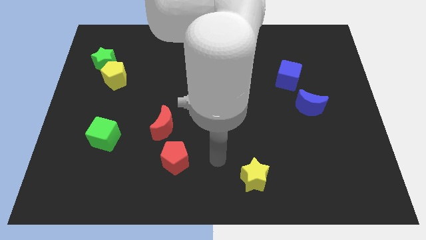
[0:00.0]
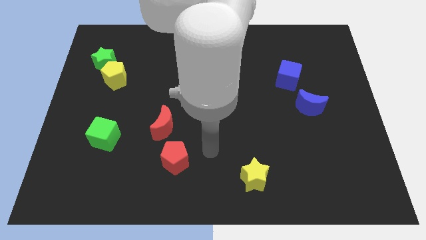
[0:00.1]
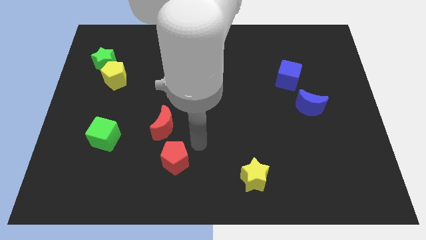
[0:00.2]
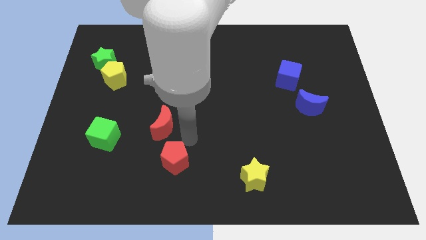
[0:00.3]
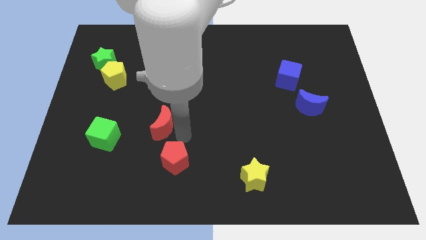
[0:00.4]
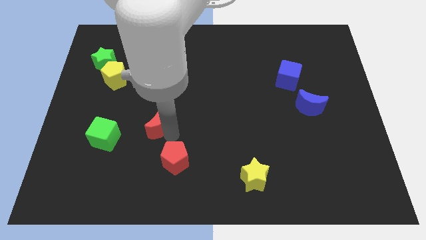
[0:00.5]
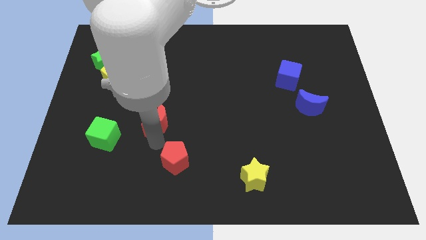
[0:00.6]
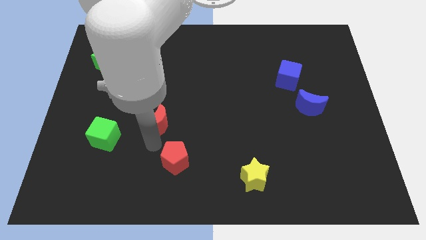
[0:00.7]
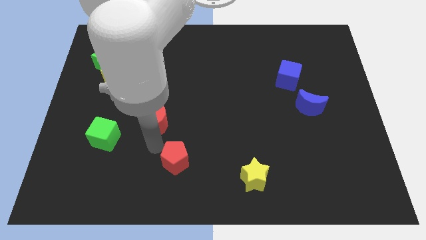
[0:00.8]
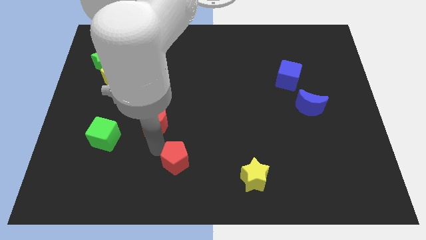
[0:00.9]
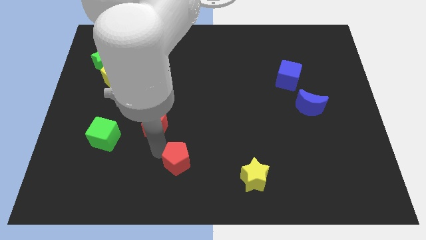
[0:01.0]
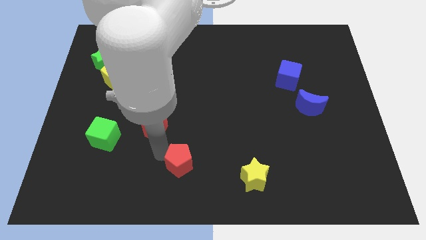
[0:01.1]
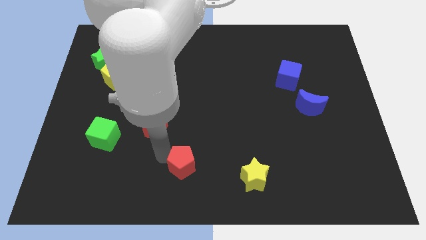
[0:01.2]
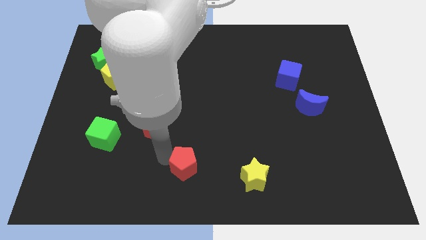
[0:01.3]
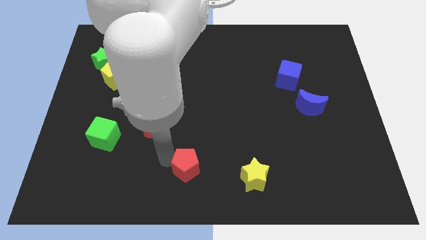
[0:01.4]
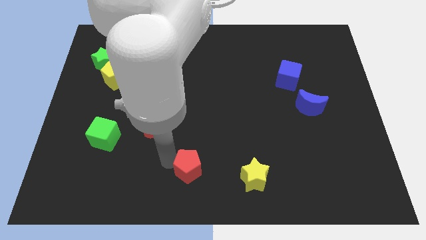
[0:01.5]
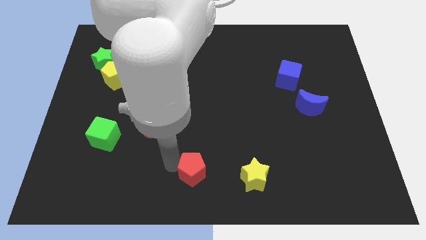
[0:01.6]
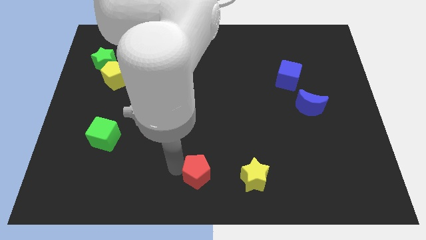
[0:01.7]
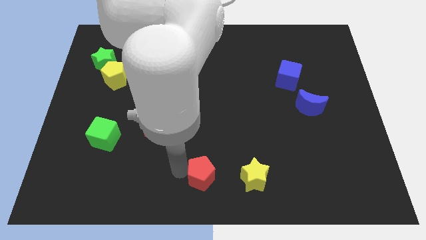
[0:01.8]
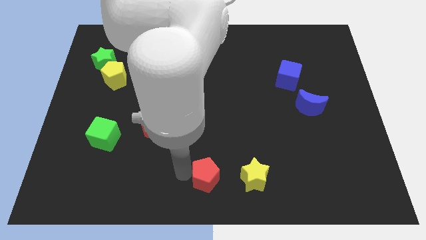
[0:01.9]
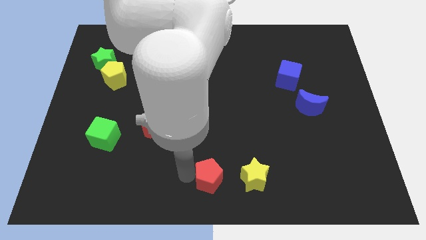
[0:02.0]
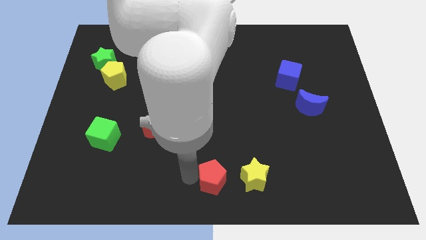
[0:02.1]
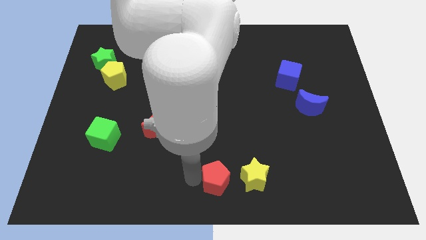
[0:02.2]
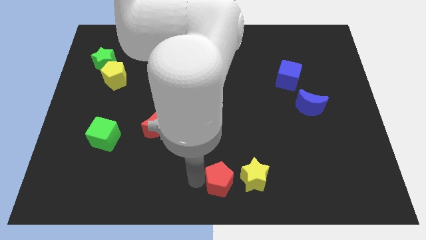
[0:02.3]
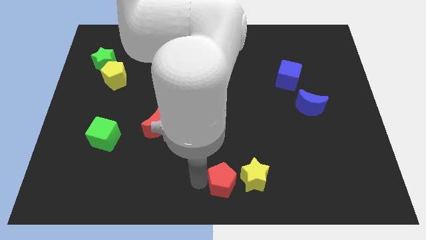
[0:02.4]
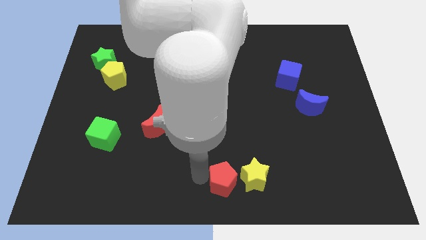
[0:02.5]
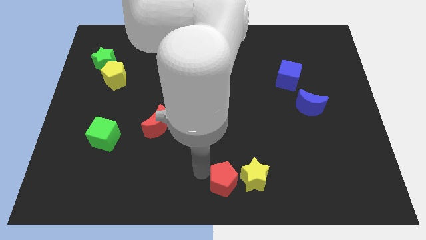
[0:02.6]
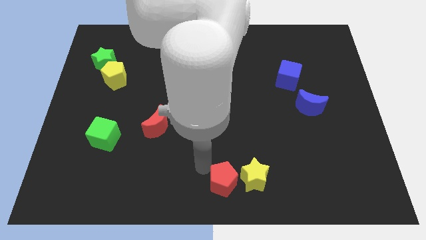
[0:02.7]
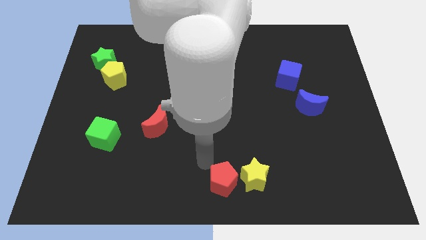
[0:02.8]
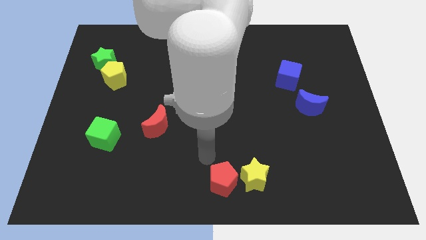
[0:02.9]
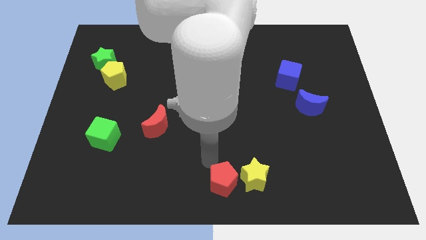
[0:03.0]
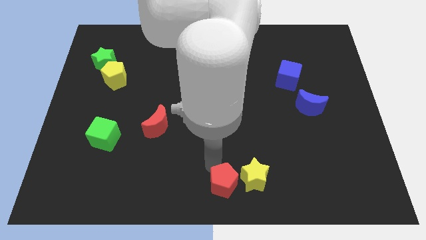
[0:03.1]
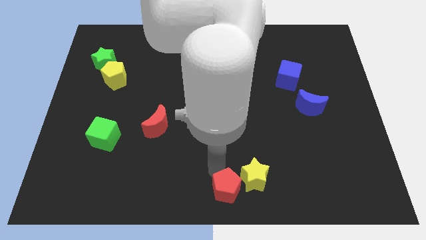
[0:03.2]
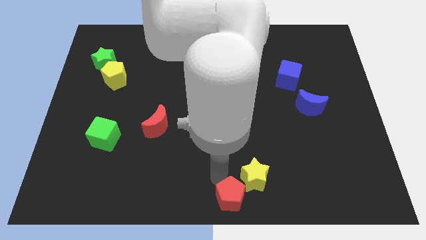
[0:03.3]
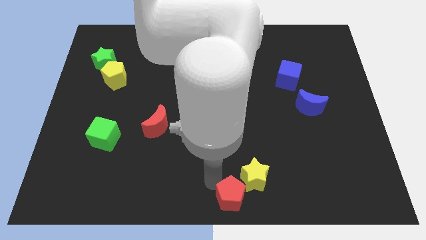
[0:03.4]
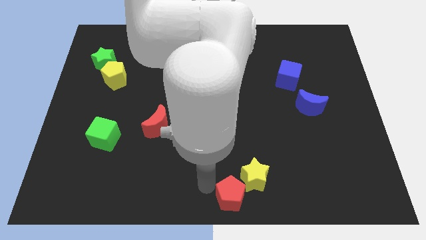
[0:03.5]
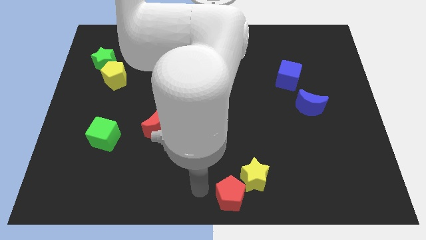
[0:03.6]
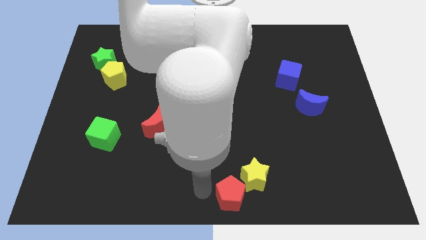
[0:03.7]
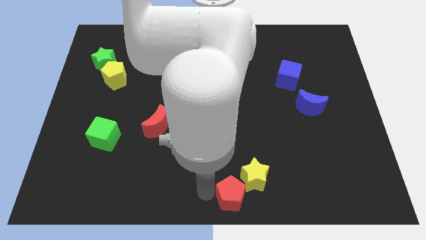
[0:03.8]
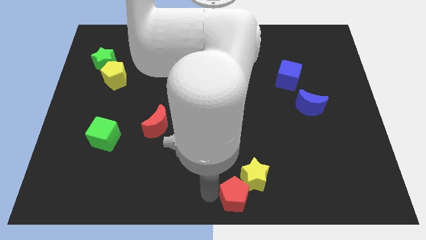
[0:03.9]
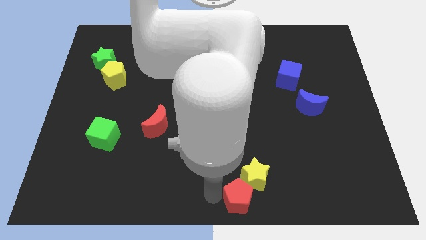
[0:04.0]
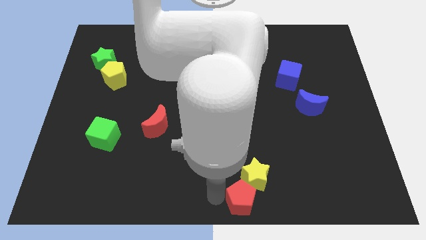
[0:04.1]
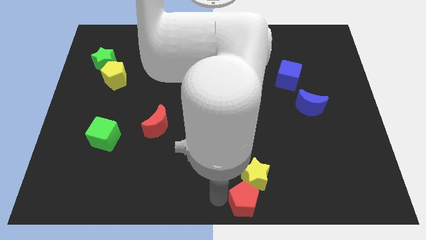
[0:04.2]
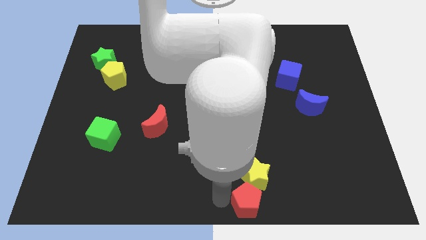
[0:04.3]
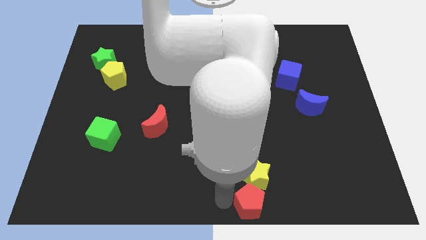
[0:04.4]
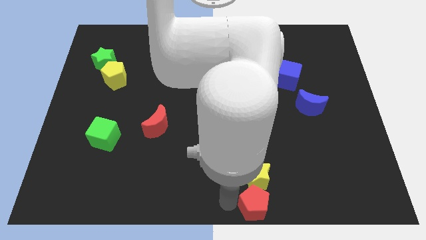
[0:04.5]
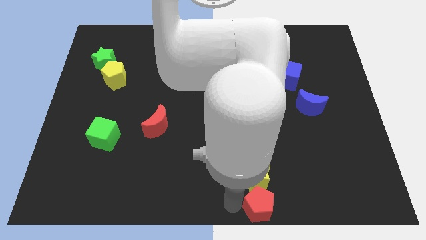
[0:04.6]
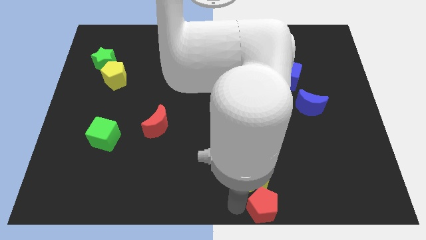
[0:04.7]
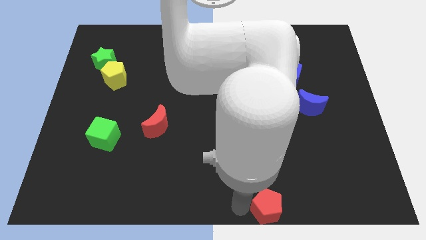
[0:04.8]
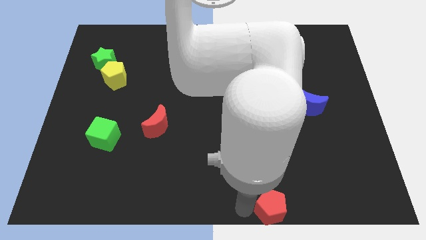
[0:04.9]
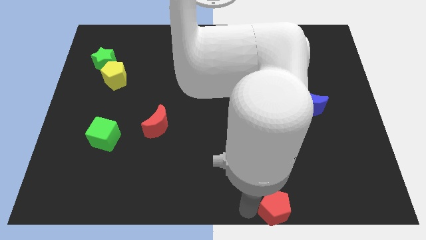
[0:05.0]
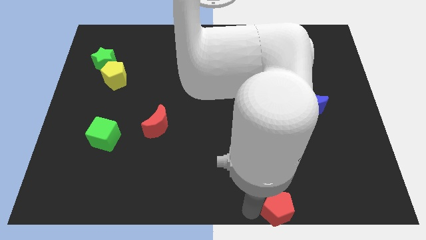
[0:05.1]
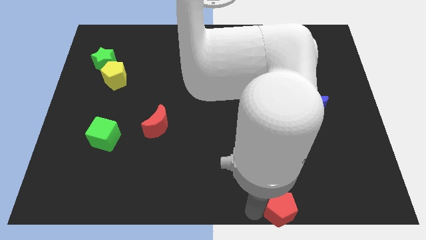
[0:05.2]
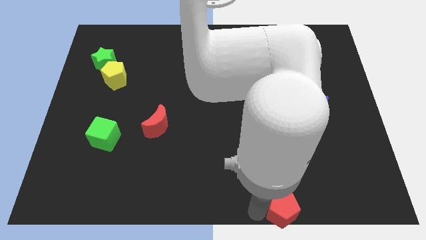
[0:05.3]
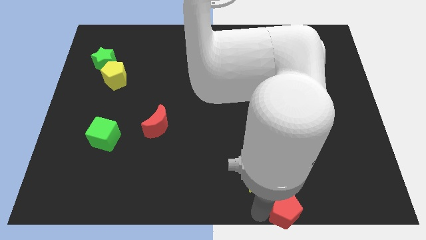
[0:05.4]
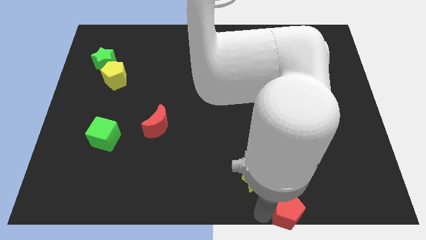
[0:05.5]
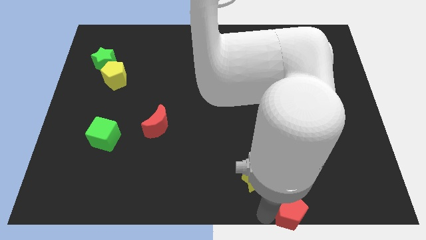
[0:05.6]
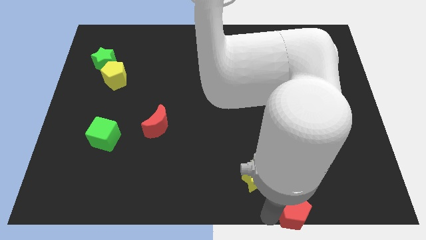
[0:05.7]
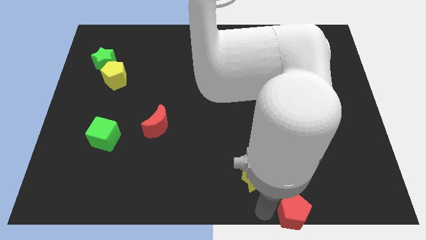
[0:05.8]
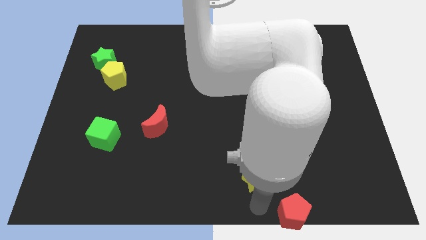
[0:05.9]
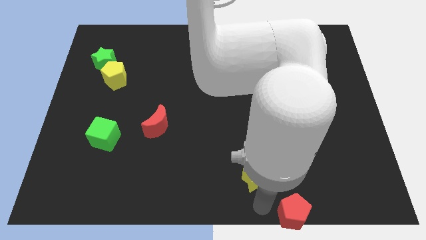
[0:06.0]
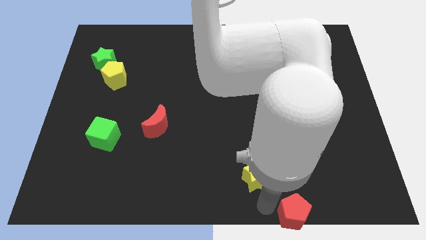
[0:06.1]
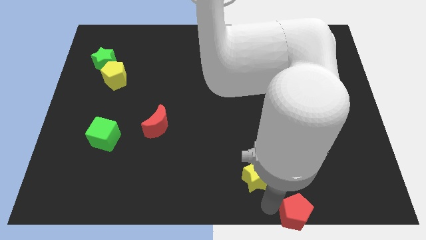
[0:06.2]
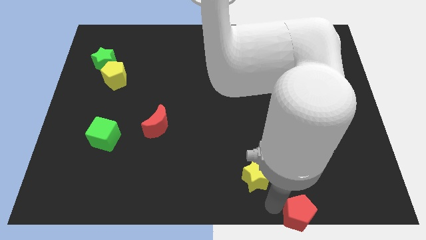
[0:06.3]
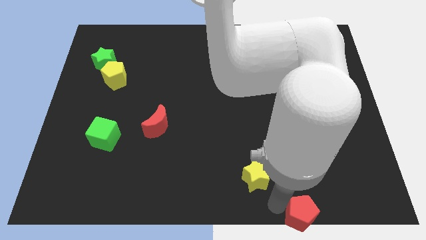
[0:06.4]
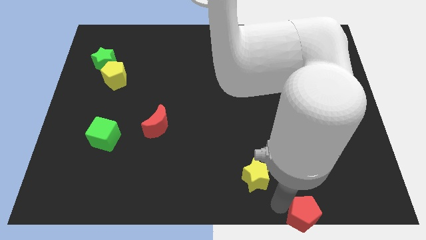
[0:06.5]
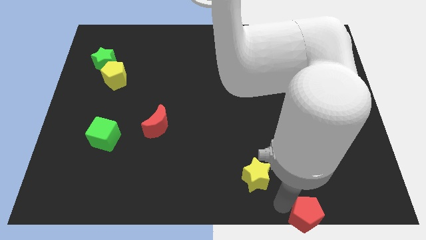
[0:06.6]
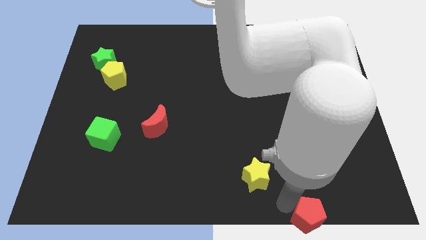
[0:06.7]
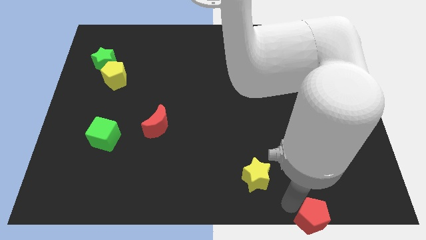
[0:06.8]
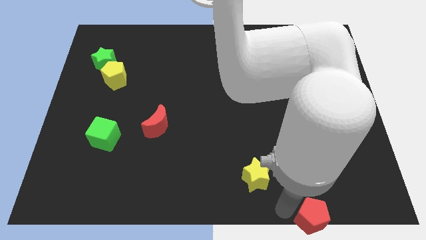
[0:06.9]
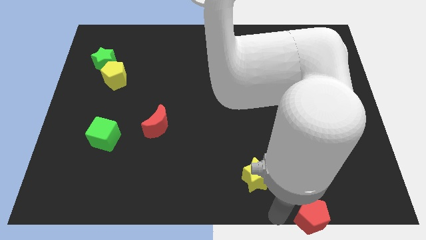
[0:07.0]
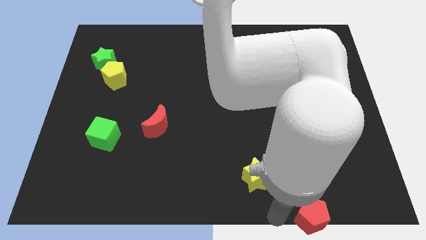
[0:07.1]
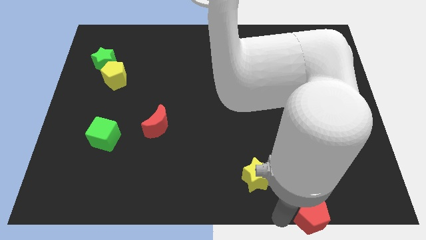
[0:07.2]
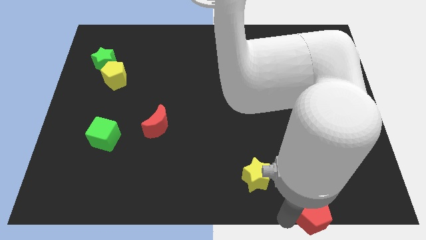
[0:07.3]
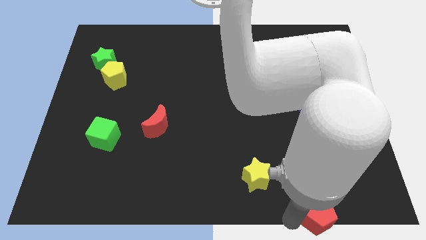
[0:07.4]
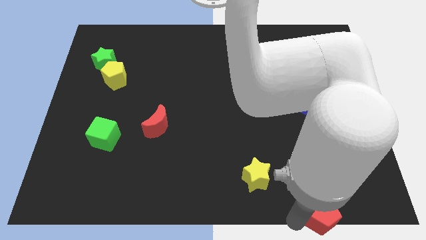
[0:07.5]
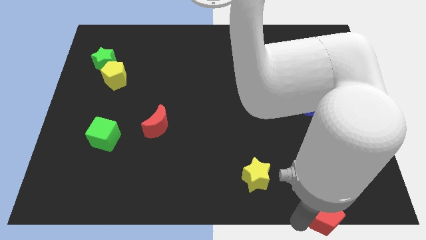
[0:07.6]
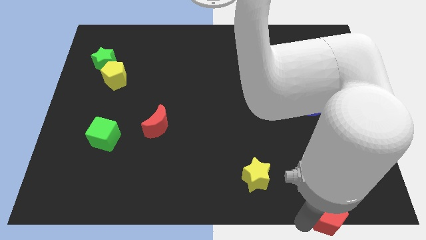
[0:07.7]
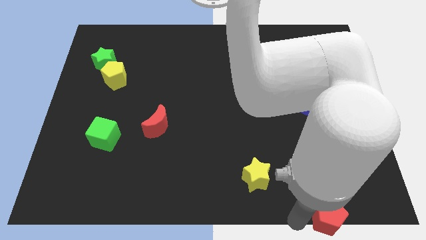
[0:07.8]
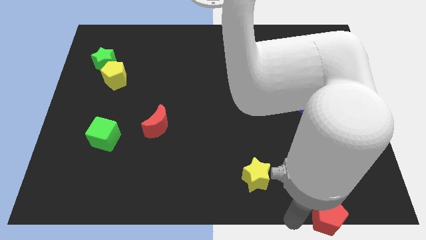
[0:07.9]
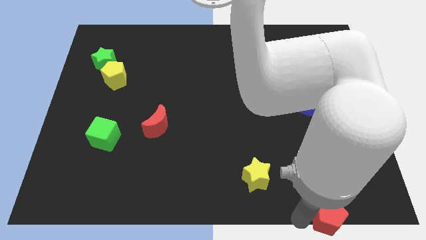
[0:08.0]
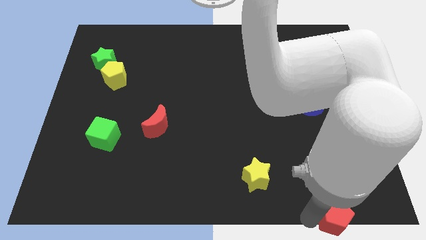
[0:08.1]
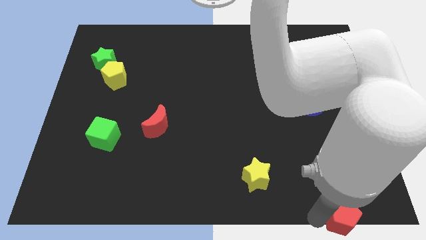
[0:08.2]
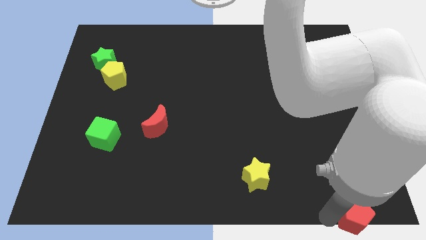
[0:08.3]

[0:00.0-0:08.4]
put the red pentagon to the bottom right corner
